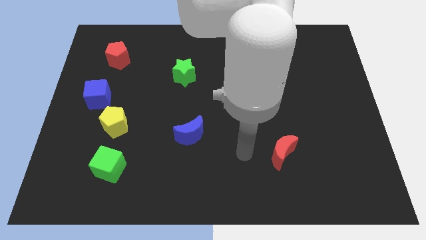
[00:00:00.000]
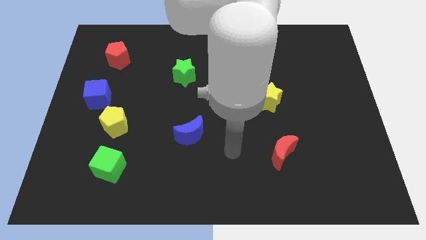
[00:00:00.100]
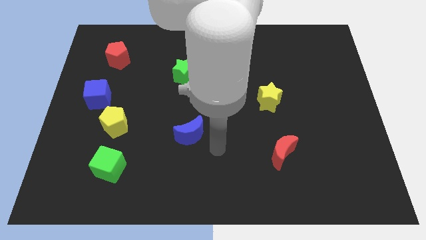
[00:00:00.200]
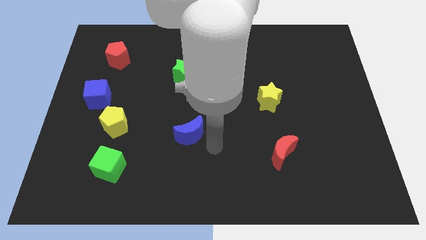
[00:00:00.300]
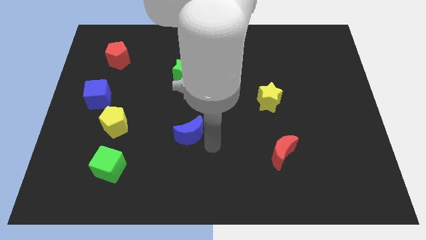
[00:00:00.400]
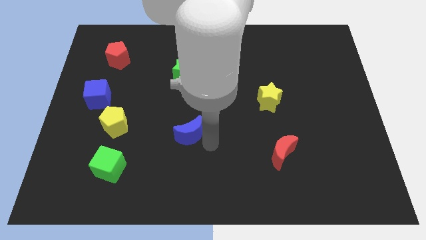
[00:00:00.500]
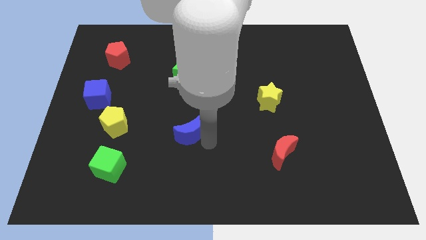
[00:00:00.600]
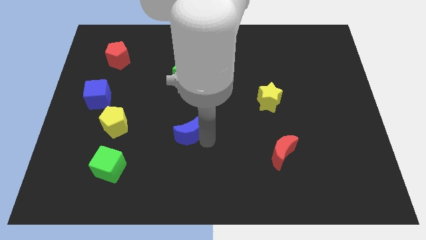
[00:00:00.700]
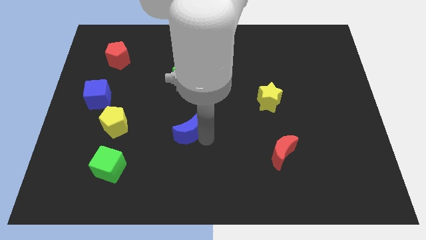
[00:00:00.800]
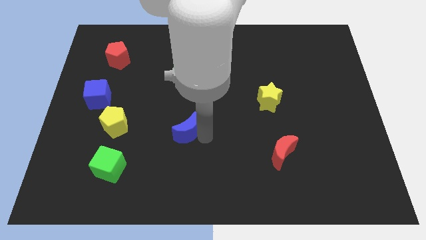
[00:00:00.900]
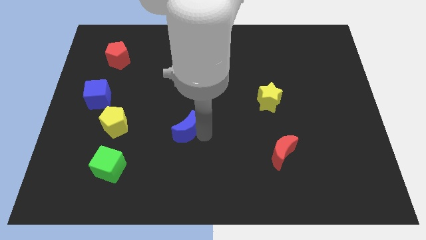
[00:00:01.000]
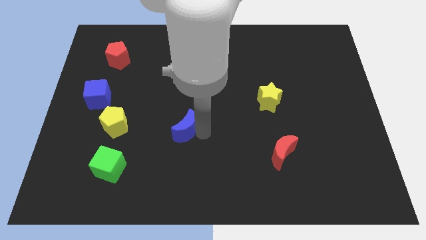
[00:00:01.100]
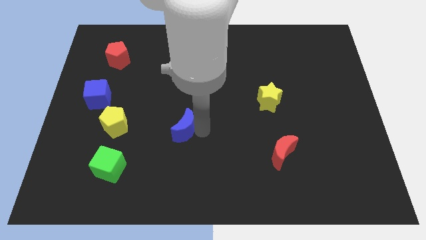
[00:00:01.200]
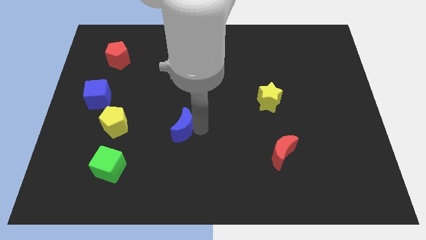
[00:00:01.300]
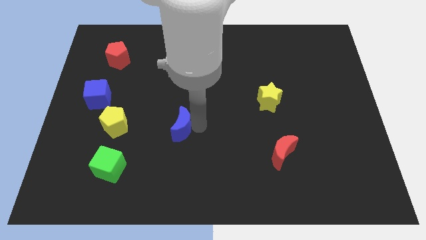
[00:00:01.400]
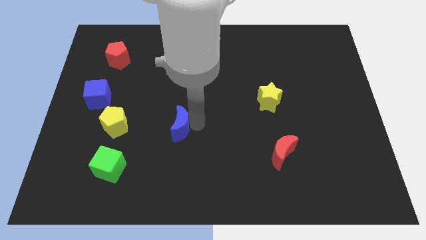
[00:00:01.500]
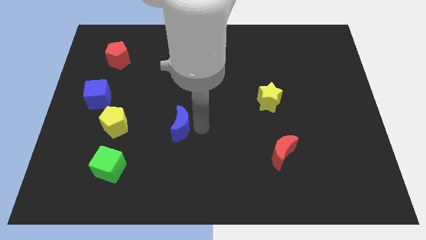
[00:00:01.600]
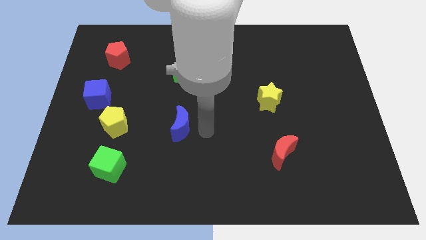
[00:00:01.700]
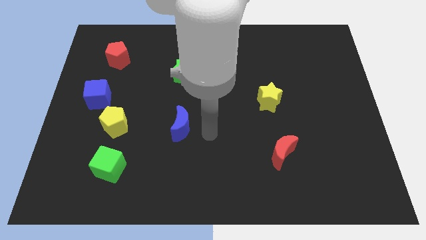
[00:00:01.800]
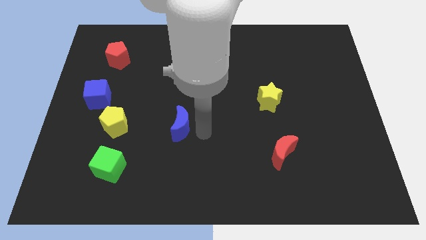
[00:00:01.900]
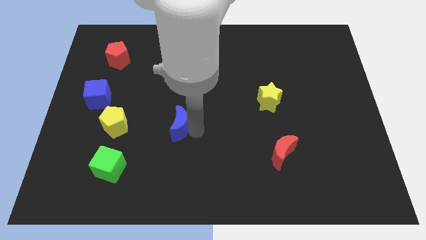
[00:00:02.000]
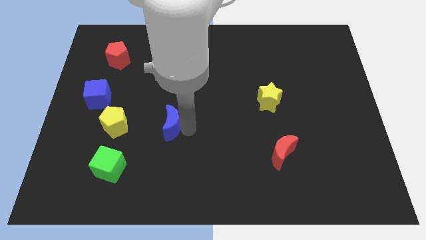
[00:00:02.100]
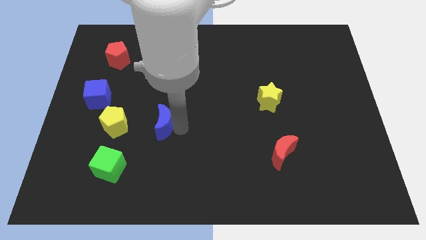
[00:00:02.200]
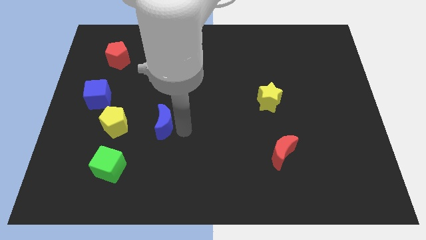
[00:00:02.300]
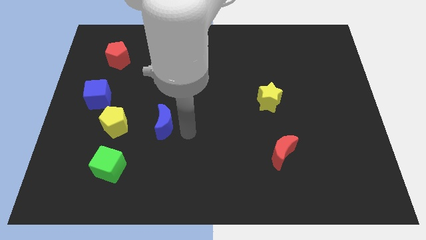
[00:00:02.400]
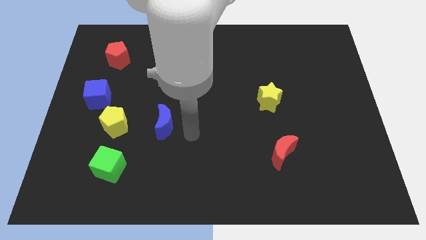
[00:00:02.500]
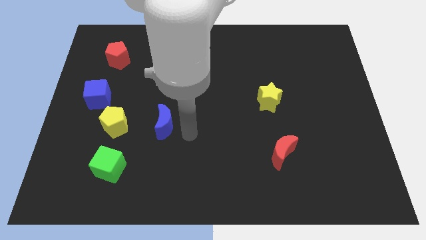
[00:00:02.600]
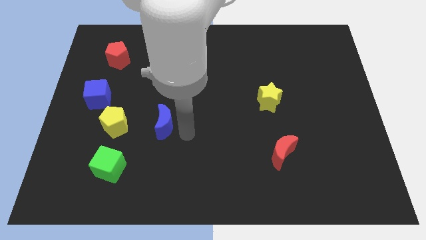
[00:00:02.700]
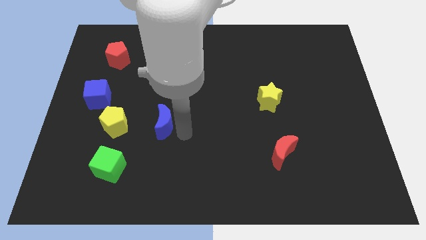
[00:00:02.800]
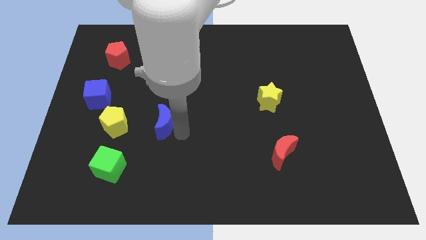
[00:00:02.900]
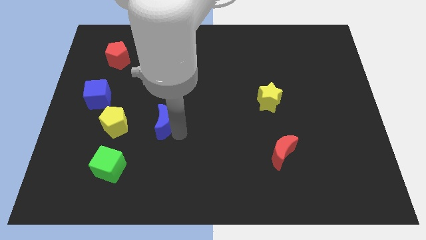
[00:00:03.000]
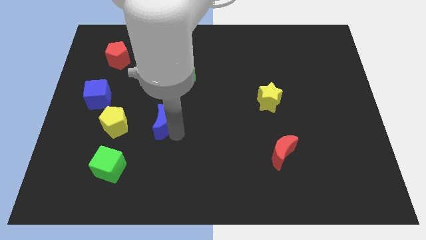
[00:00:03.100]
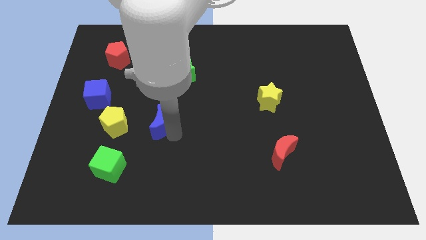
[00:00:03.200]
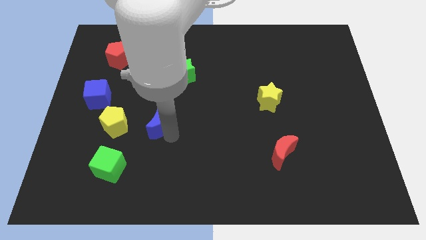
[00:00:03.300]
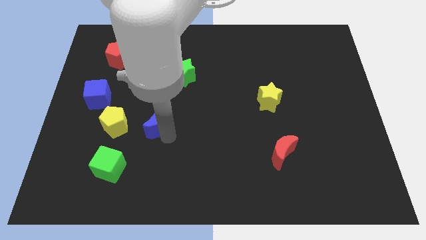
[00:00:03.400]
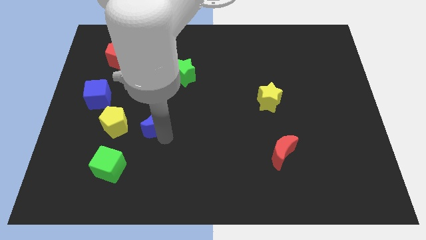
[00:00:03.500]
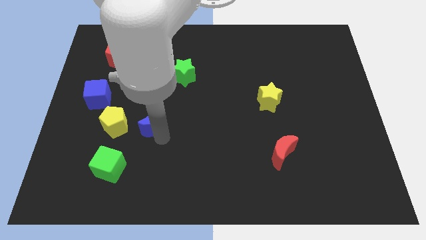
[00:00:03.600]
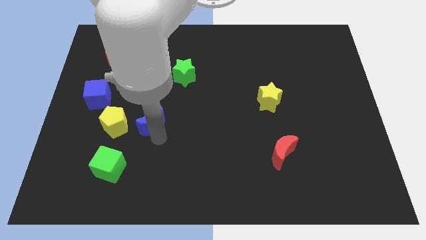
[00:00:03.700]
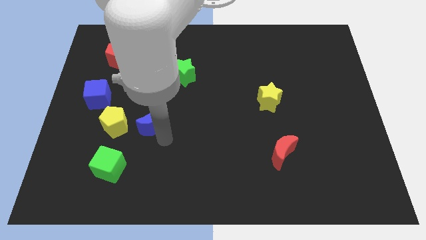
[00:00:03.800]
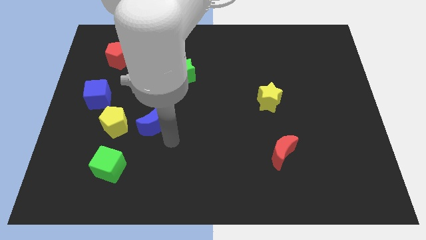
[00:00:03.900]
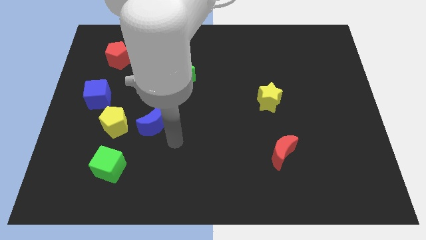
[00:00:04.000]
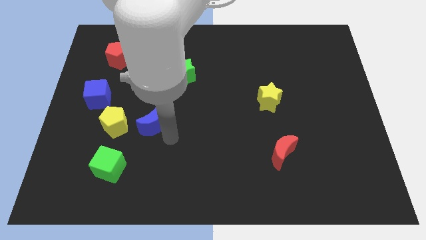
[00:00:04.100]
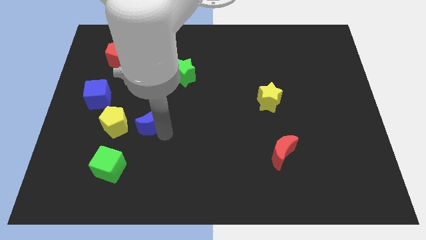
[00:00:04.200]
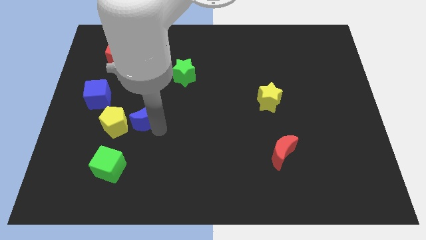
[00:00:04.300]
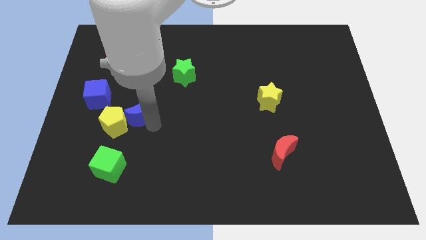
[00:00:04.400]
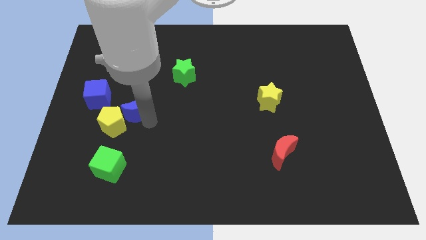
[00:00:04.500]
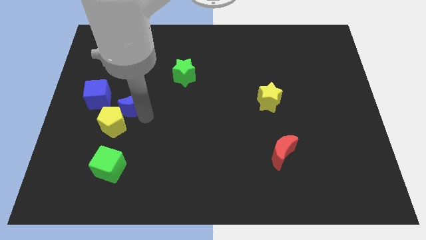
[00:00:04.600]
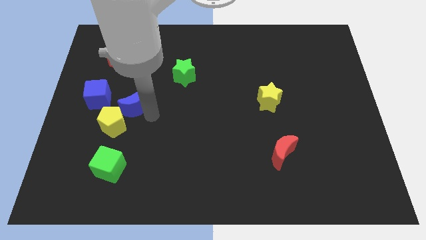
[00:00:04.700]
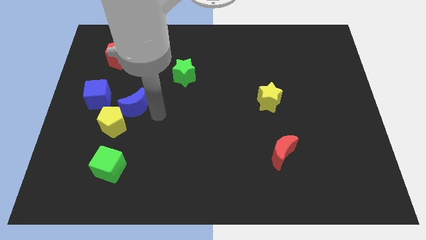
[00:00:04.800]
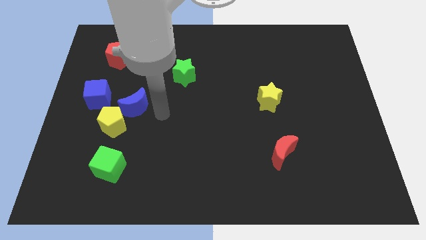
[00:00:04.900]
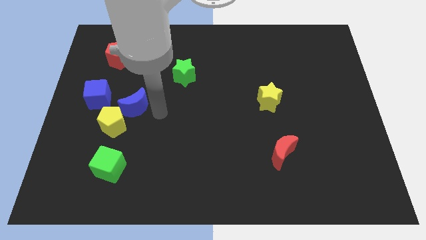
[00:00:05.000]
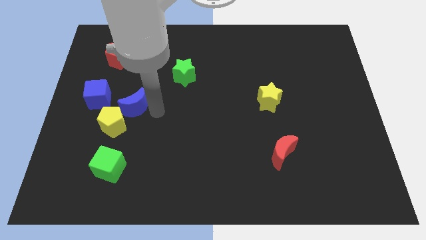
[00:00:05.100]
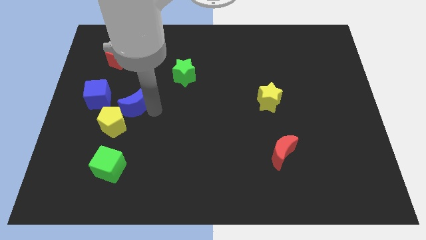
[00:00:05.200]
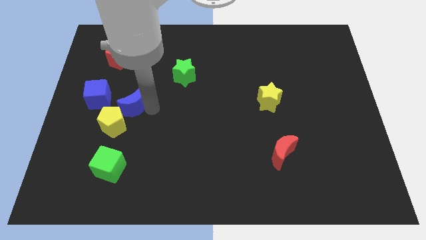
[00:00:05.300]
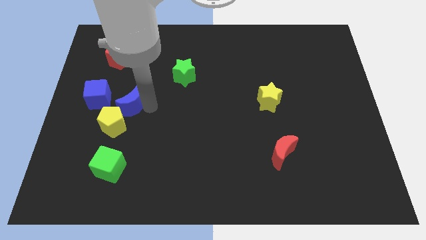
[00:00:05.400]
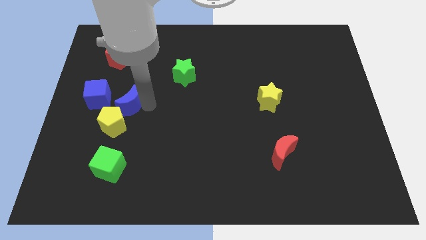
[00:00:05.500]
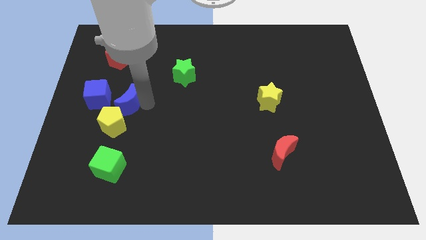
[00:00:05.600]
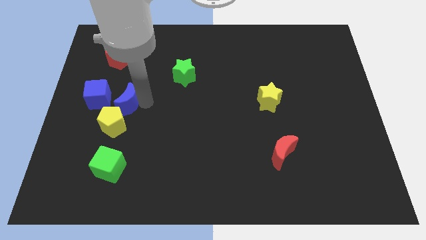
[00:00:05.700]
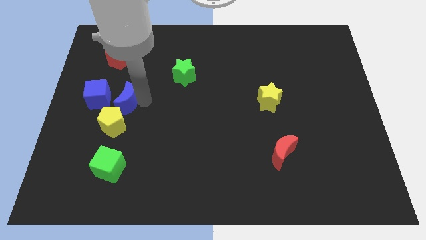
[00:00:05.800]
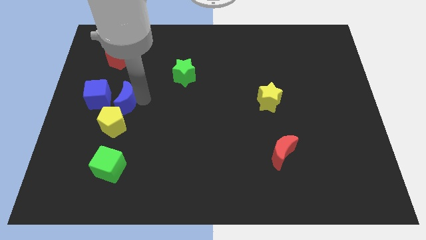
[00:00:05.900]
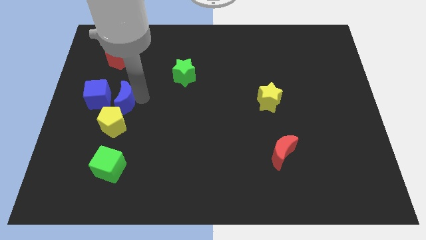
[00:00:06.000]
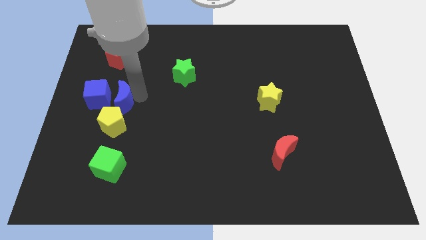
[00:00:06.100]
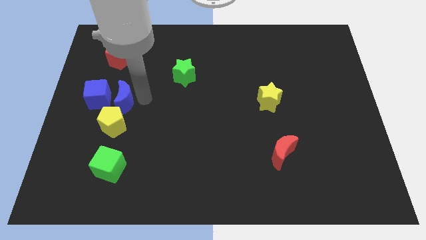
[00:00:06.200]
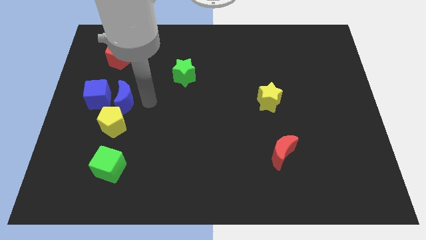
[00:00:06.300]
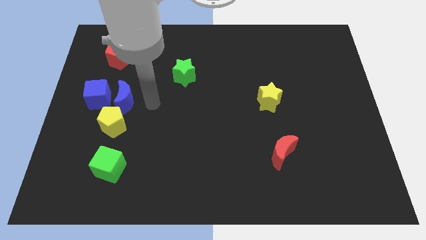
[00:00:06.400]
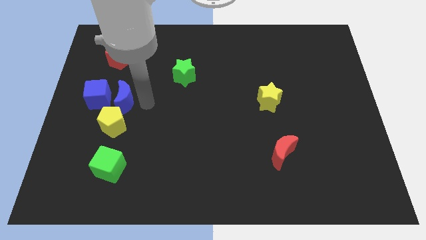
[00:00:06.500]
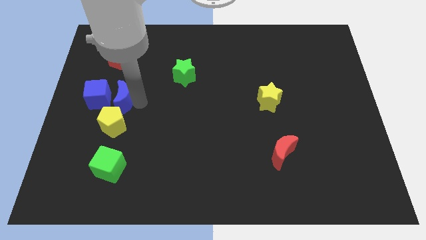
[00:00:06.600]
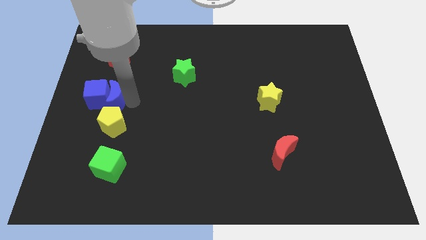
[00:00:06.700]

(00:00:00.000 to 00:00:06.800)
move the blue moon towards the blue cube
